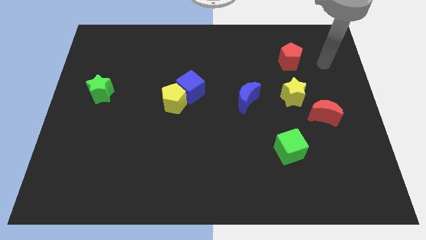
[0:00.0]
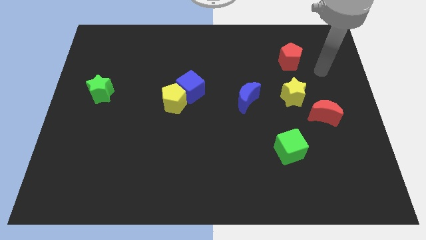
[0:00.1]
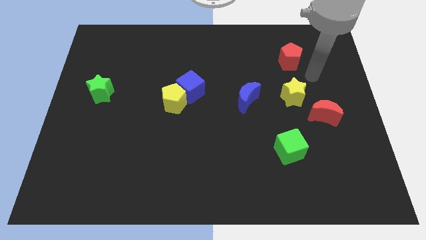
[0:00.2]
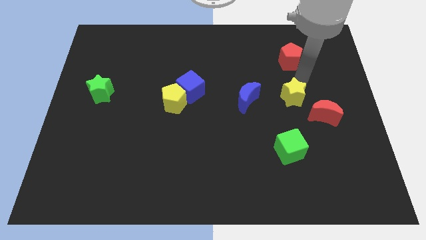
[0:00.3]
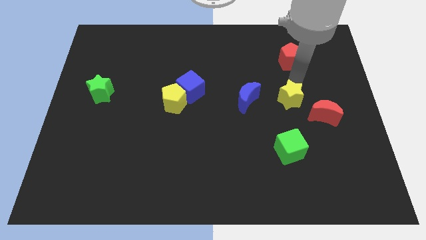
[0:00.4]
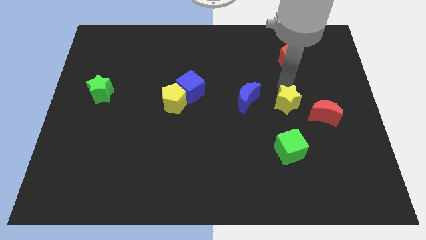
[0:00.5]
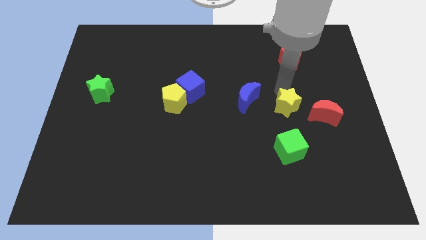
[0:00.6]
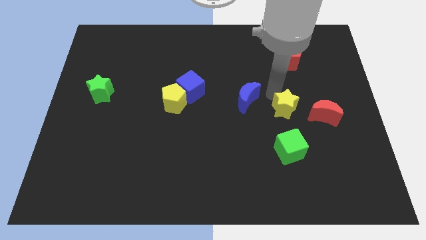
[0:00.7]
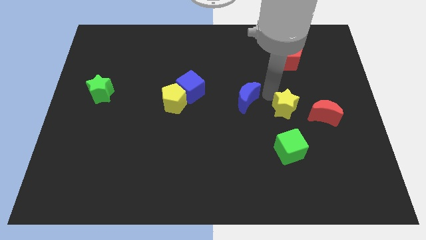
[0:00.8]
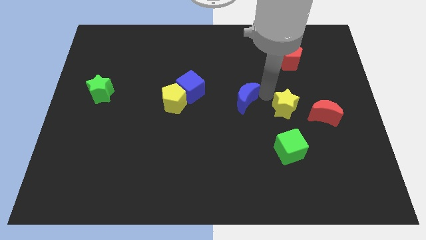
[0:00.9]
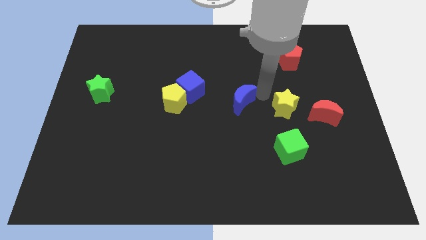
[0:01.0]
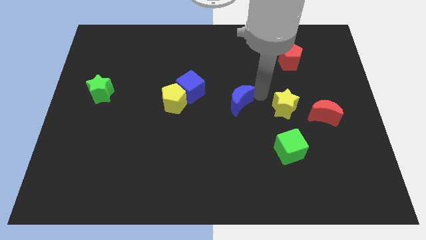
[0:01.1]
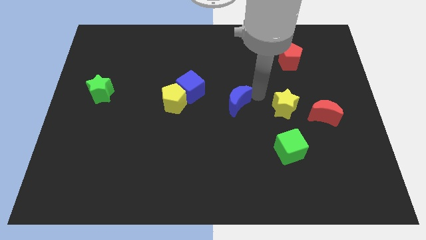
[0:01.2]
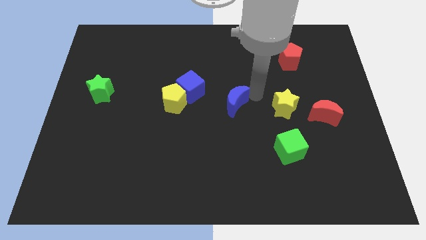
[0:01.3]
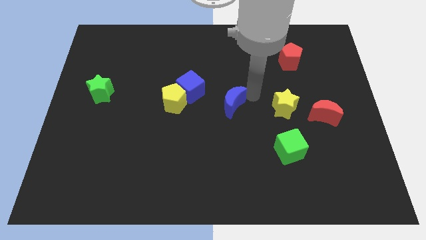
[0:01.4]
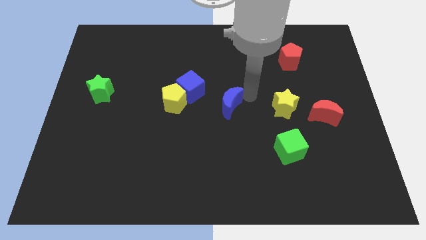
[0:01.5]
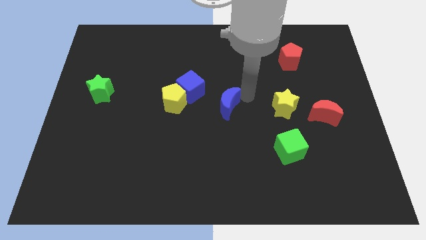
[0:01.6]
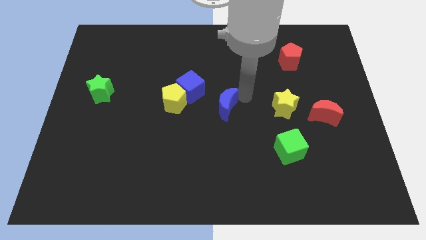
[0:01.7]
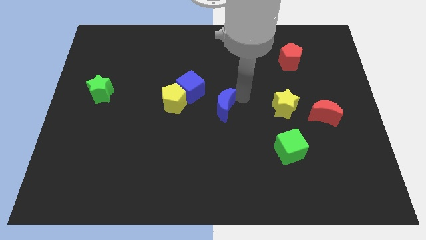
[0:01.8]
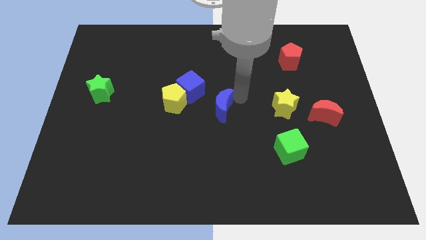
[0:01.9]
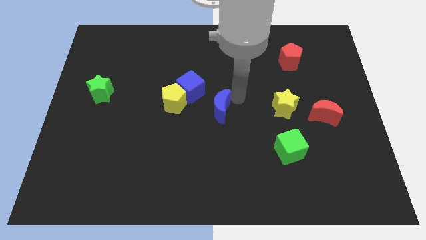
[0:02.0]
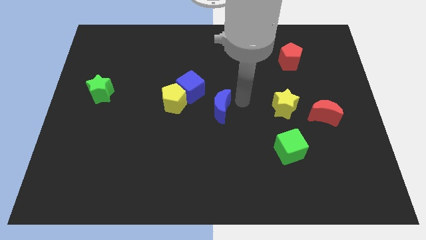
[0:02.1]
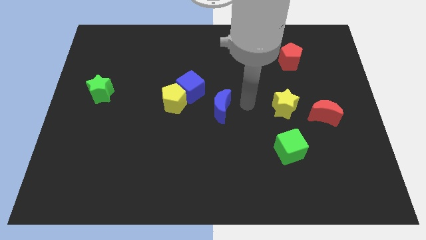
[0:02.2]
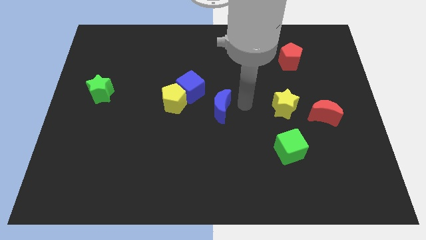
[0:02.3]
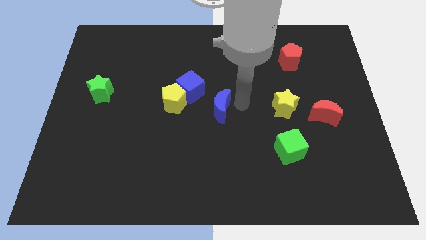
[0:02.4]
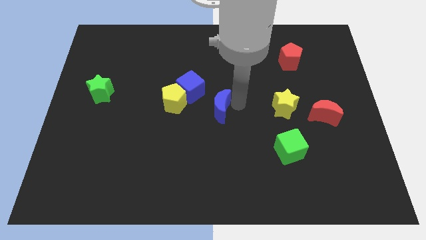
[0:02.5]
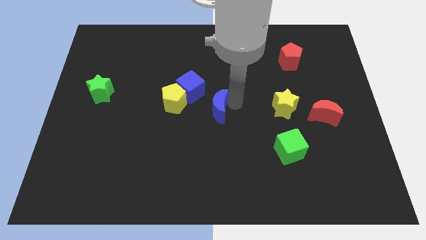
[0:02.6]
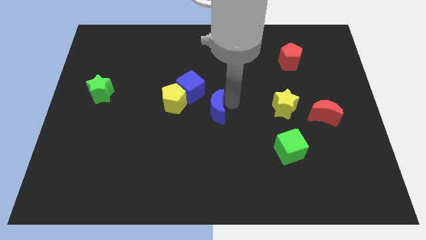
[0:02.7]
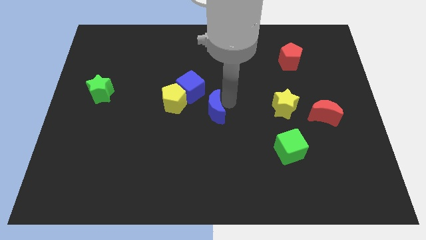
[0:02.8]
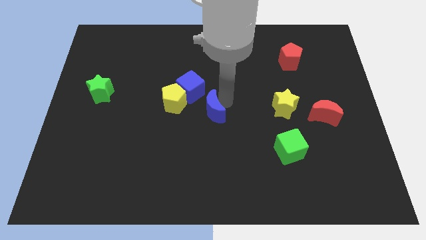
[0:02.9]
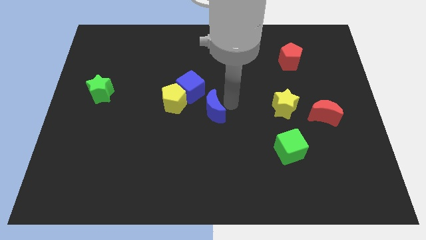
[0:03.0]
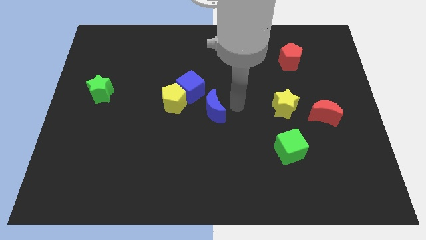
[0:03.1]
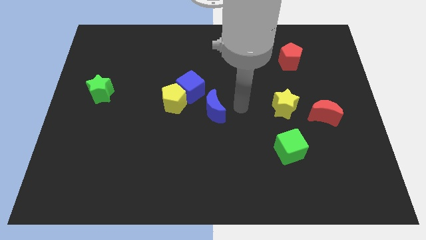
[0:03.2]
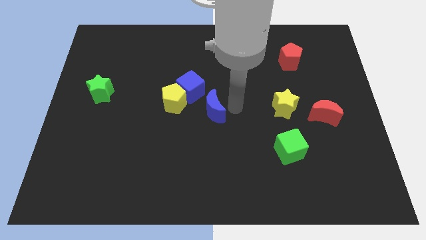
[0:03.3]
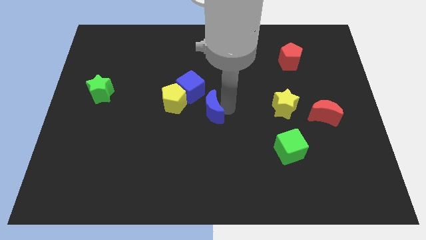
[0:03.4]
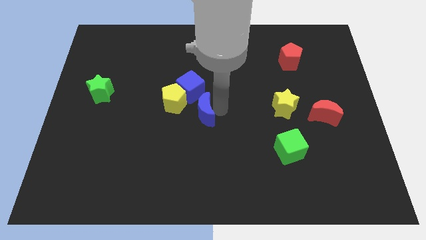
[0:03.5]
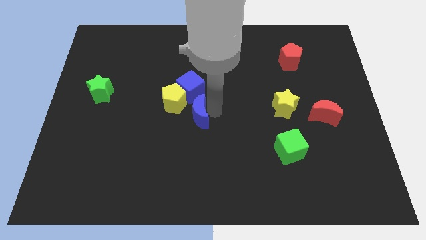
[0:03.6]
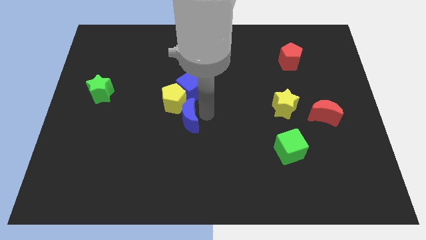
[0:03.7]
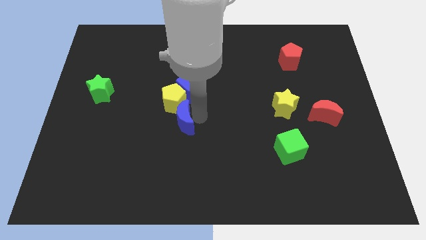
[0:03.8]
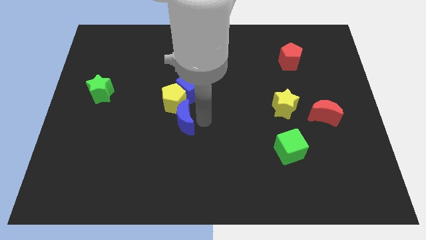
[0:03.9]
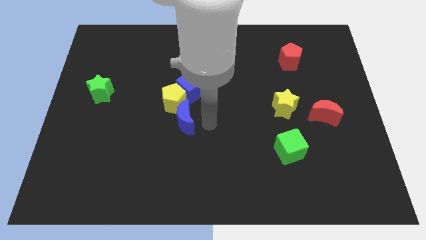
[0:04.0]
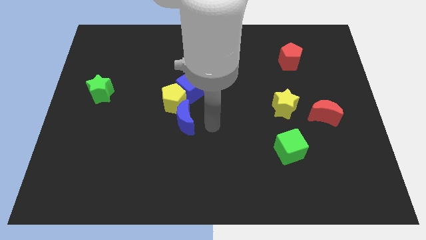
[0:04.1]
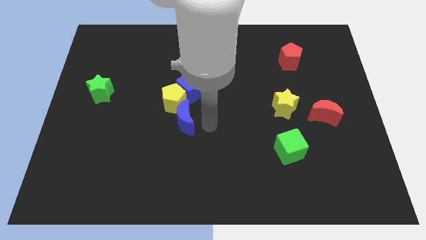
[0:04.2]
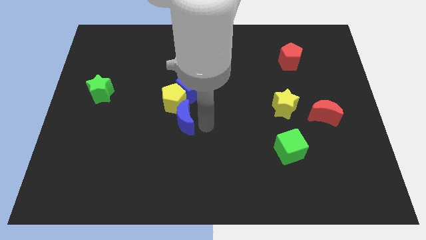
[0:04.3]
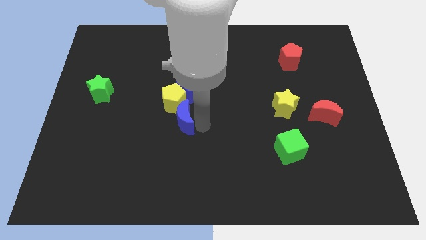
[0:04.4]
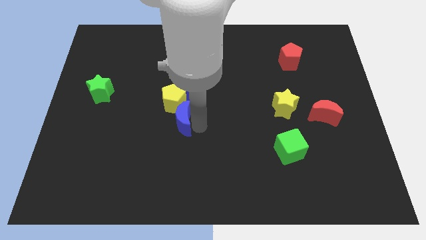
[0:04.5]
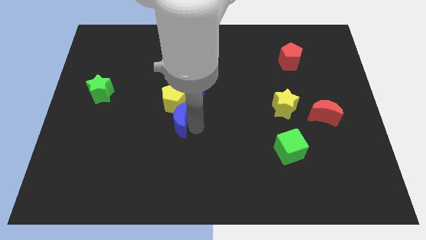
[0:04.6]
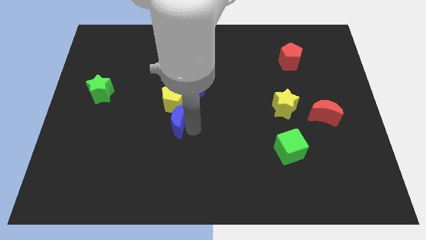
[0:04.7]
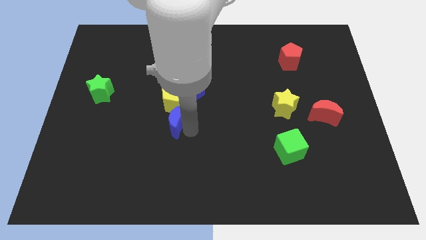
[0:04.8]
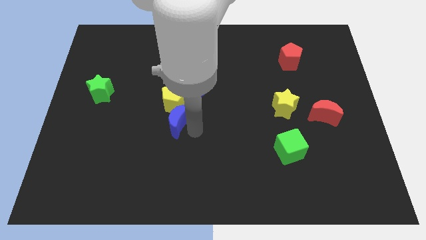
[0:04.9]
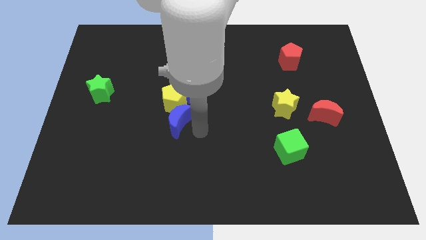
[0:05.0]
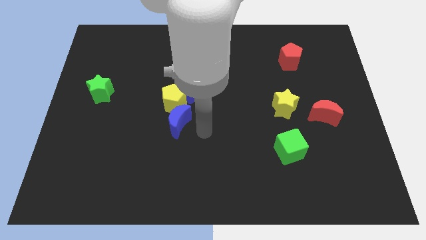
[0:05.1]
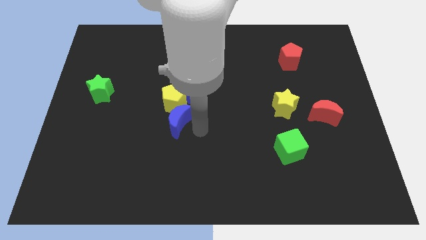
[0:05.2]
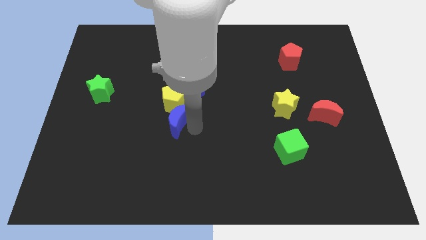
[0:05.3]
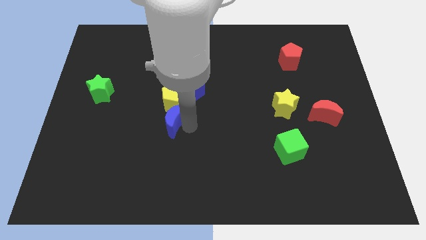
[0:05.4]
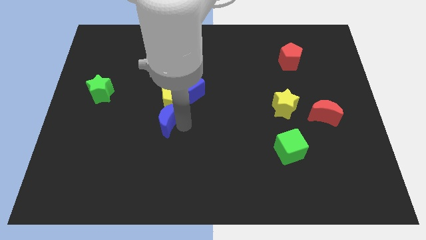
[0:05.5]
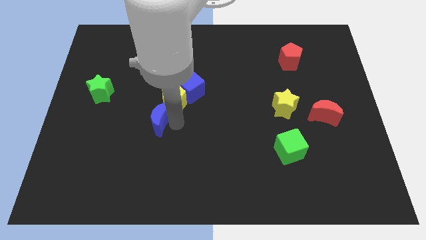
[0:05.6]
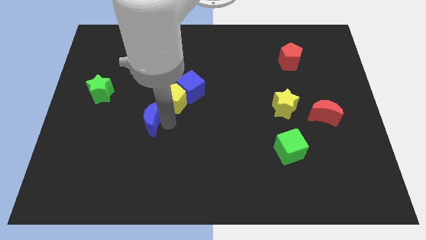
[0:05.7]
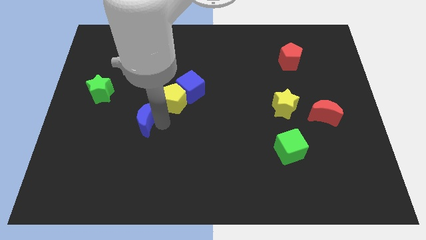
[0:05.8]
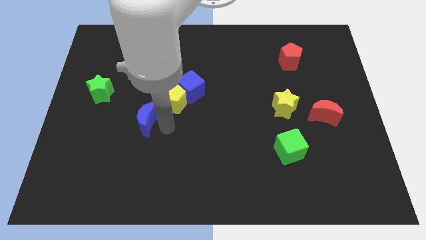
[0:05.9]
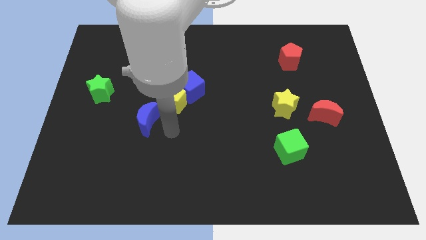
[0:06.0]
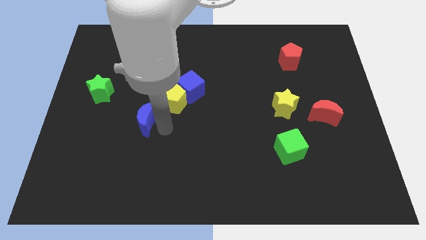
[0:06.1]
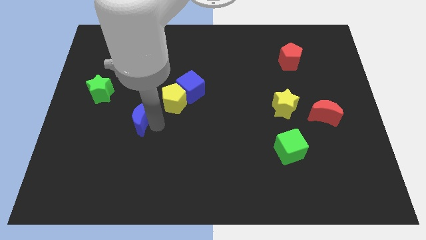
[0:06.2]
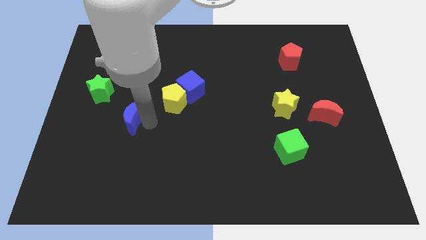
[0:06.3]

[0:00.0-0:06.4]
push the blue moon diagonally down and to the right of the green star
